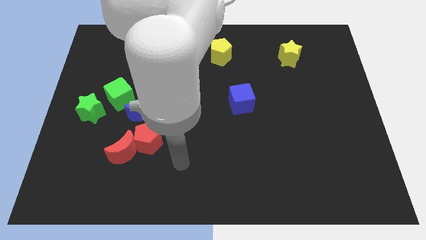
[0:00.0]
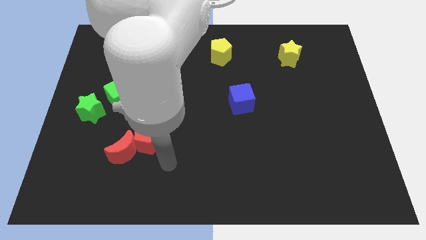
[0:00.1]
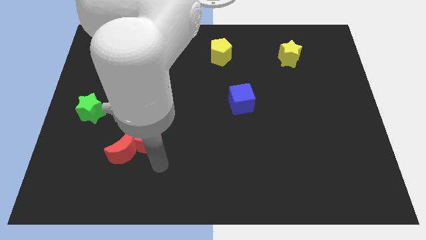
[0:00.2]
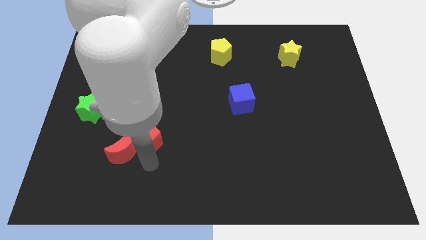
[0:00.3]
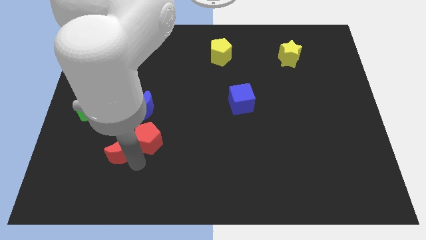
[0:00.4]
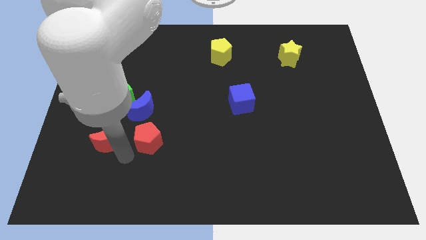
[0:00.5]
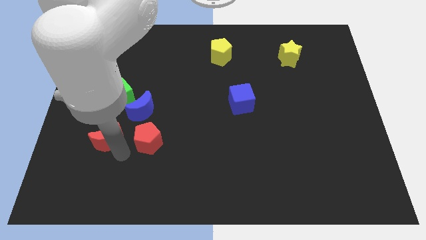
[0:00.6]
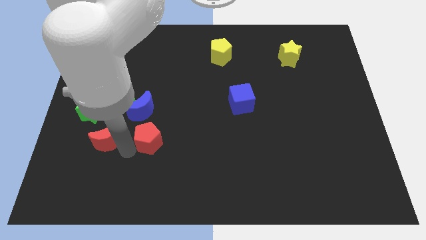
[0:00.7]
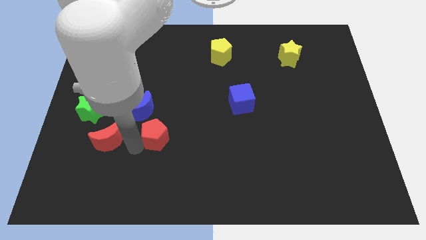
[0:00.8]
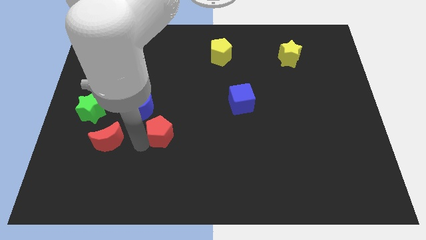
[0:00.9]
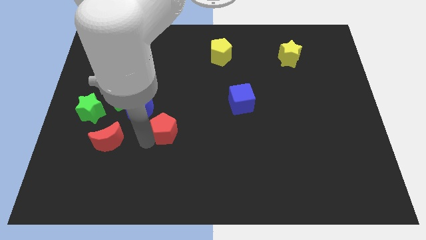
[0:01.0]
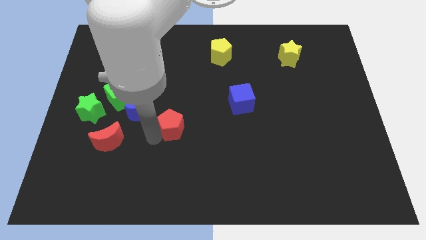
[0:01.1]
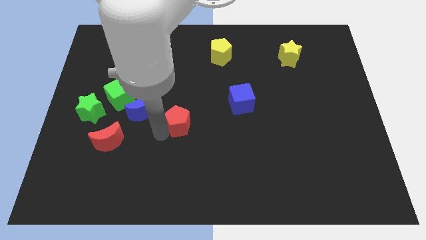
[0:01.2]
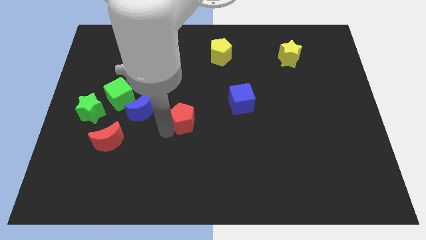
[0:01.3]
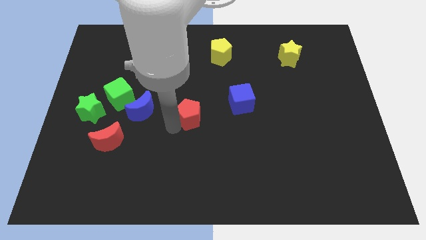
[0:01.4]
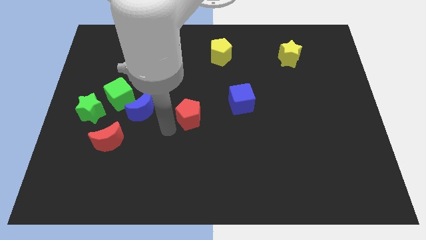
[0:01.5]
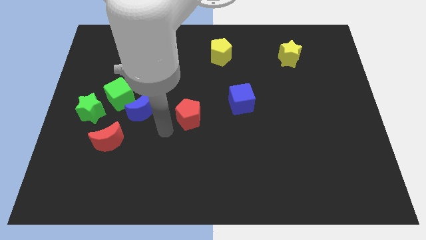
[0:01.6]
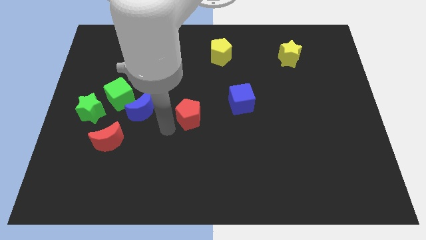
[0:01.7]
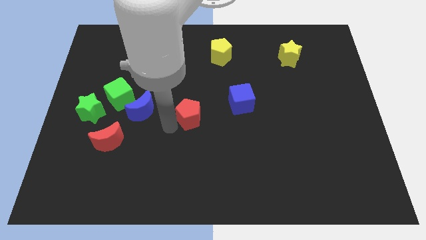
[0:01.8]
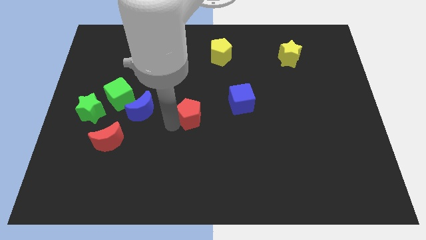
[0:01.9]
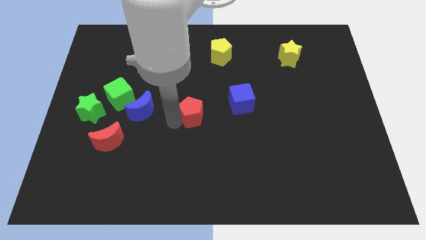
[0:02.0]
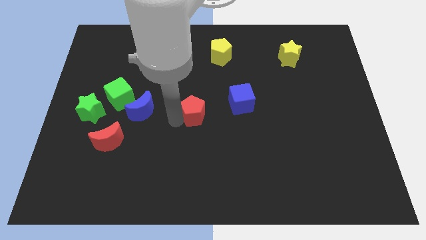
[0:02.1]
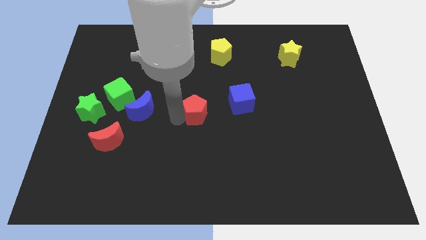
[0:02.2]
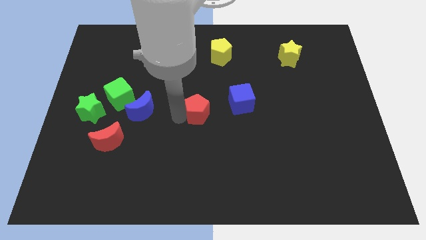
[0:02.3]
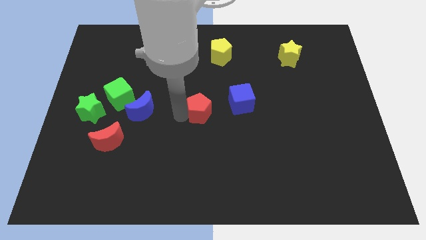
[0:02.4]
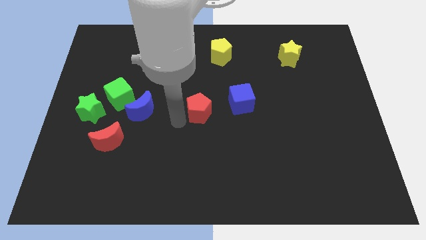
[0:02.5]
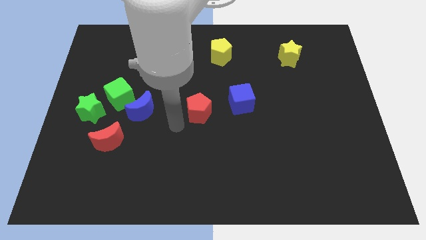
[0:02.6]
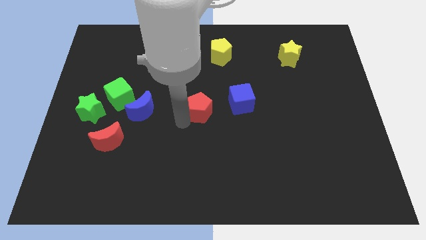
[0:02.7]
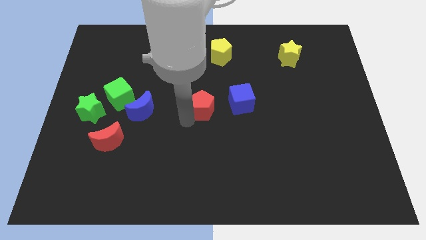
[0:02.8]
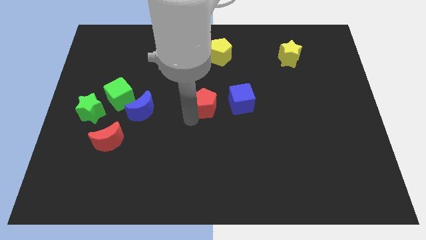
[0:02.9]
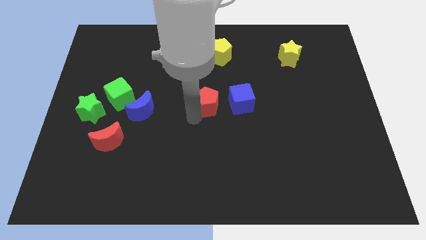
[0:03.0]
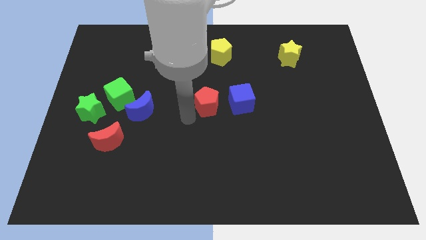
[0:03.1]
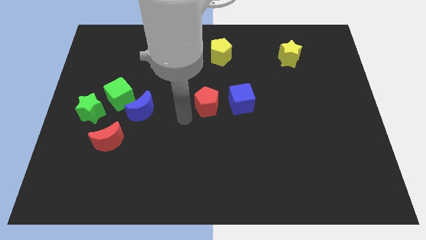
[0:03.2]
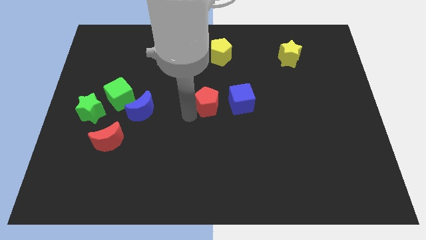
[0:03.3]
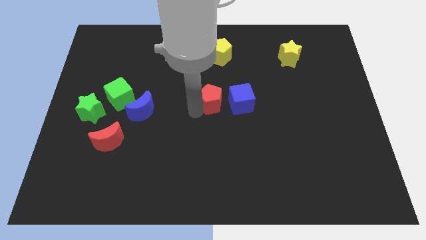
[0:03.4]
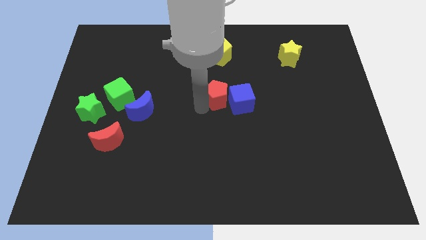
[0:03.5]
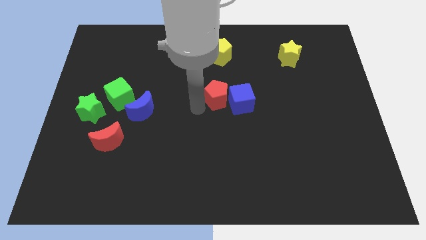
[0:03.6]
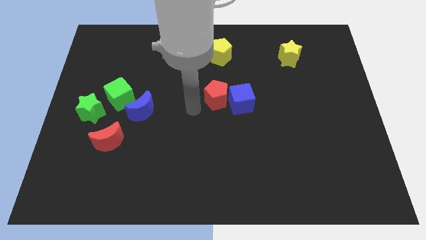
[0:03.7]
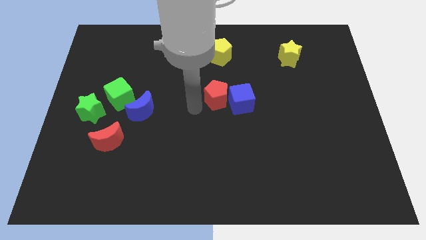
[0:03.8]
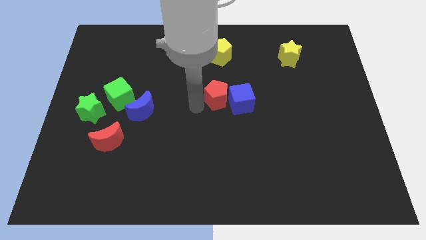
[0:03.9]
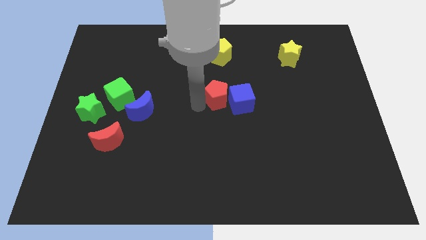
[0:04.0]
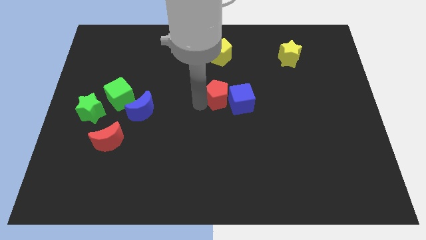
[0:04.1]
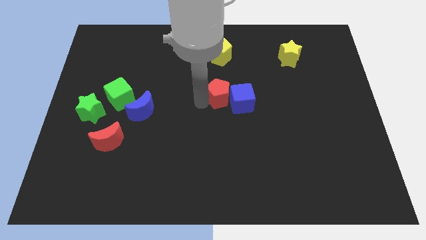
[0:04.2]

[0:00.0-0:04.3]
slide the red pentagon upwards and then to the right

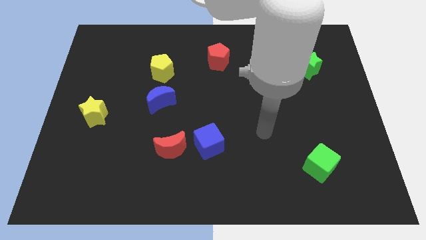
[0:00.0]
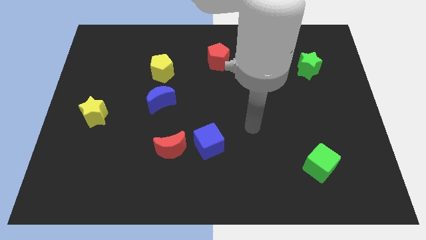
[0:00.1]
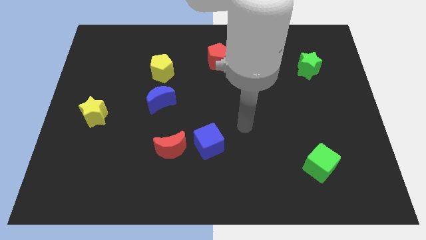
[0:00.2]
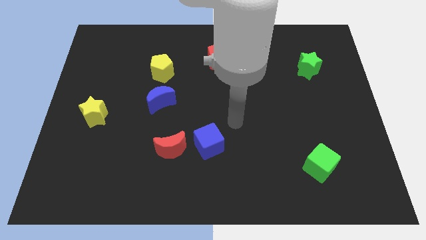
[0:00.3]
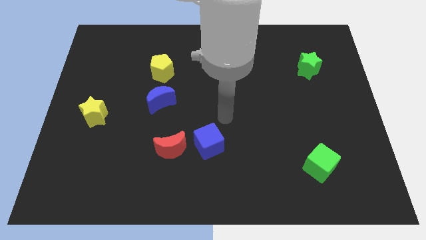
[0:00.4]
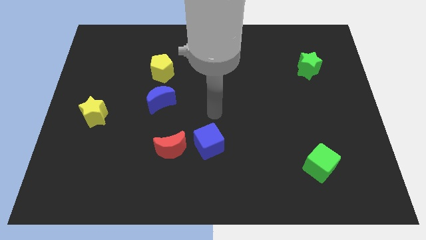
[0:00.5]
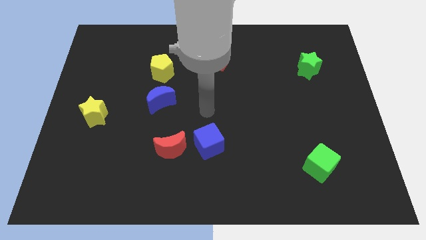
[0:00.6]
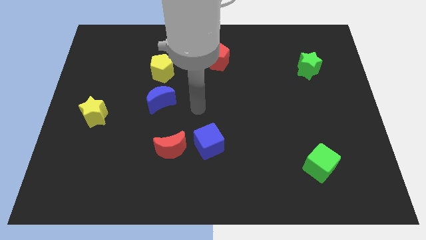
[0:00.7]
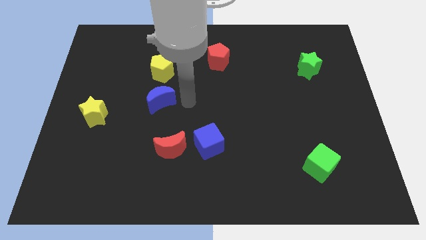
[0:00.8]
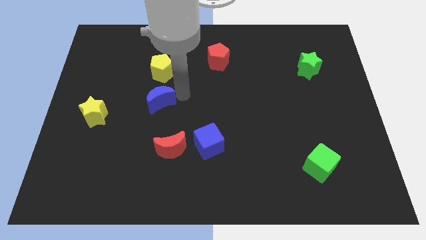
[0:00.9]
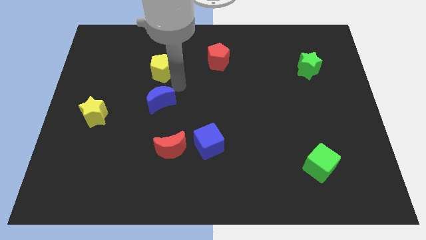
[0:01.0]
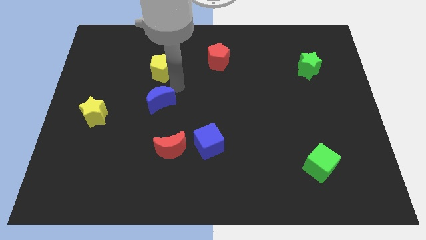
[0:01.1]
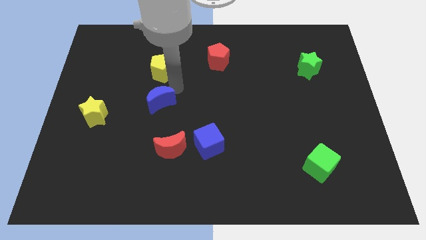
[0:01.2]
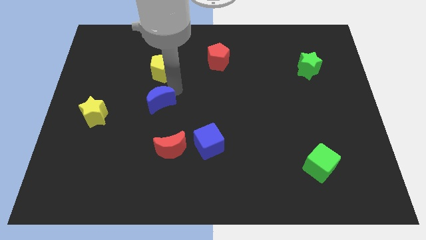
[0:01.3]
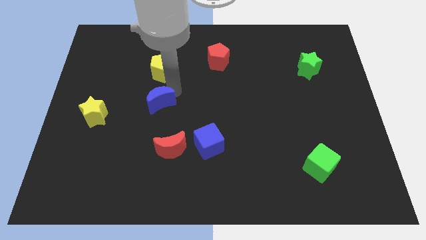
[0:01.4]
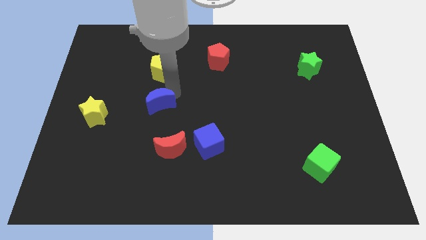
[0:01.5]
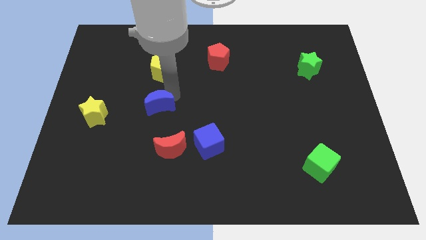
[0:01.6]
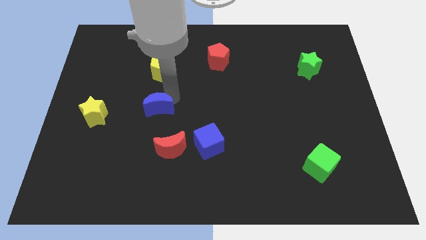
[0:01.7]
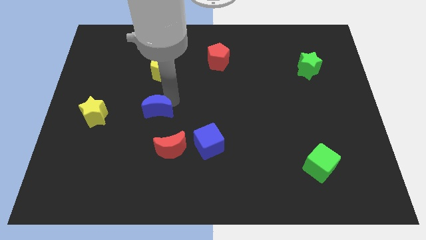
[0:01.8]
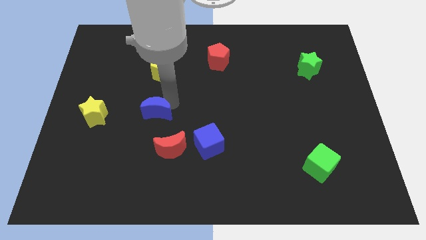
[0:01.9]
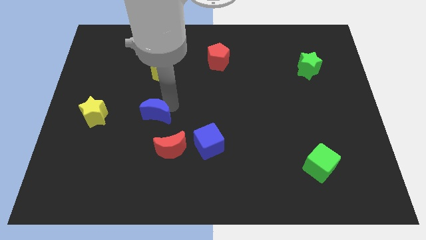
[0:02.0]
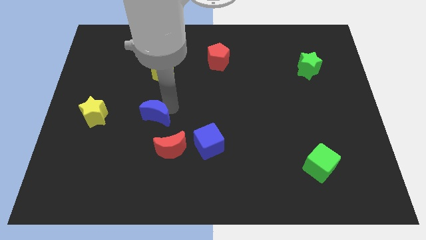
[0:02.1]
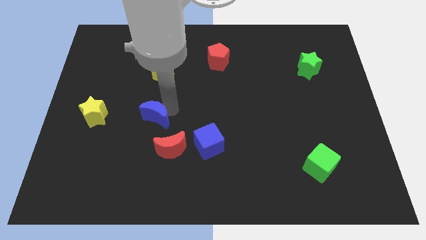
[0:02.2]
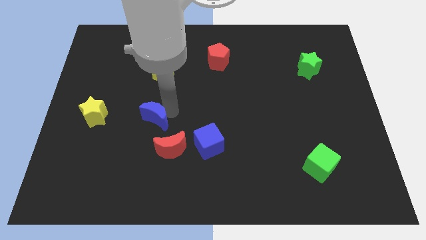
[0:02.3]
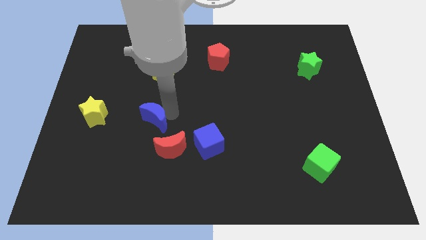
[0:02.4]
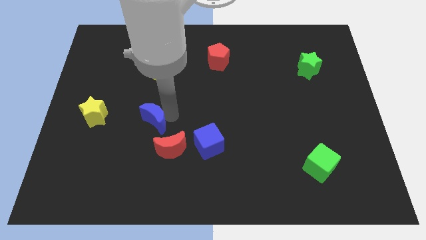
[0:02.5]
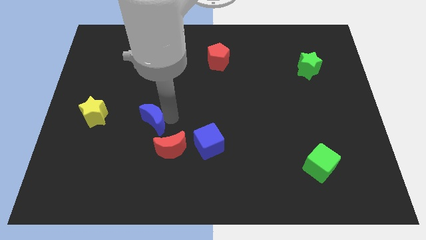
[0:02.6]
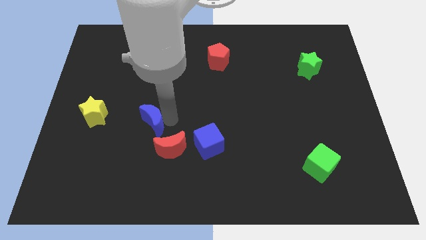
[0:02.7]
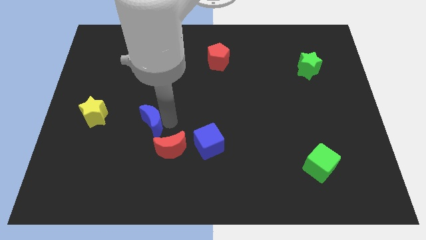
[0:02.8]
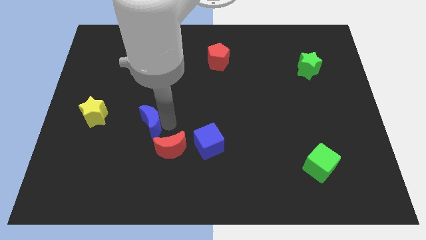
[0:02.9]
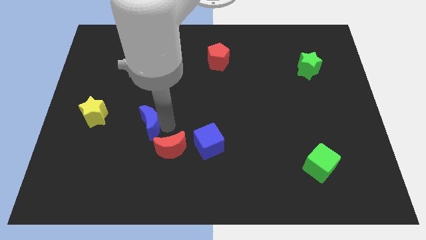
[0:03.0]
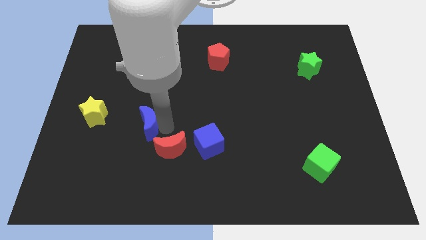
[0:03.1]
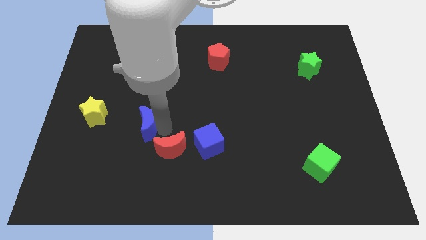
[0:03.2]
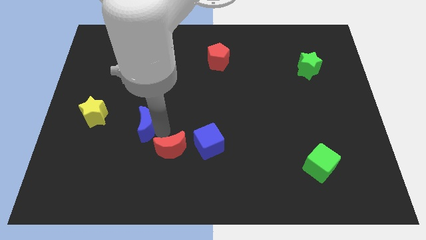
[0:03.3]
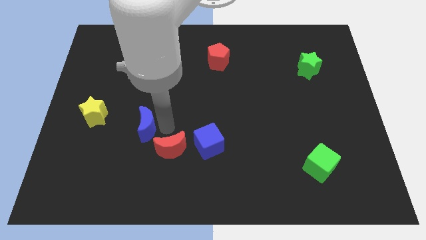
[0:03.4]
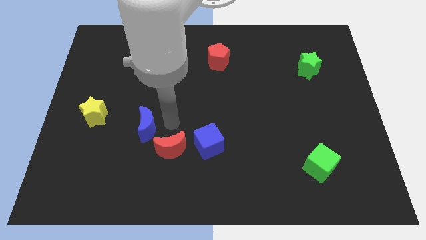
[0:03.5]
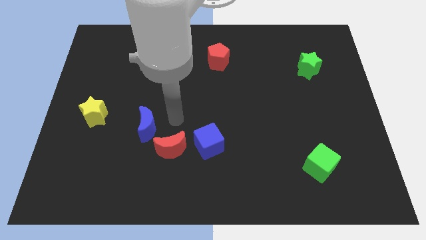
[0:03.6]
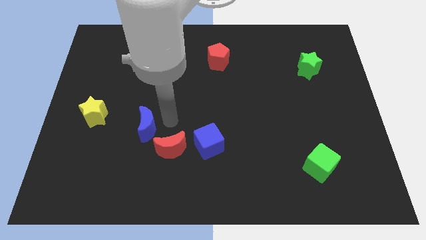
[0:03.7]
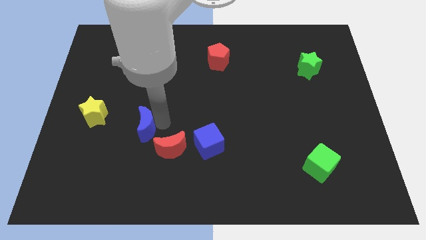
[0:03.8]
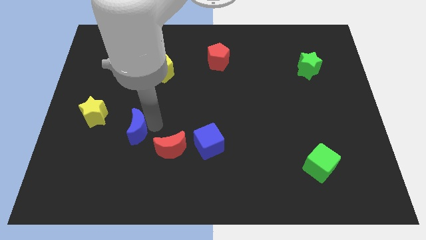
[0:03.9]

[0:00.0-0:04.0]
slightly move the blue moon diagonally downwards and left
